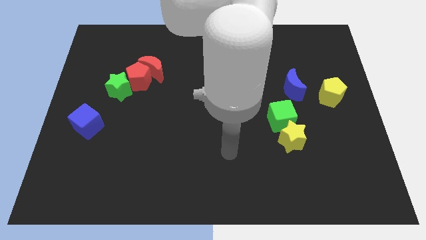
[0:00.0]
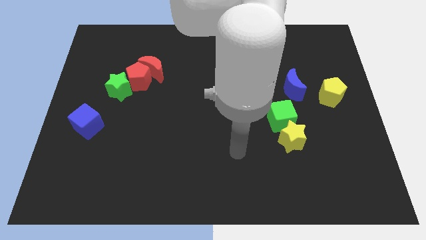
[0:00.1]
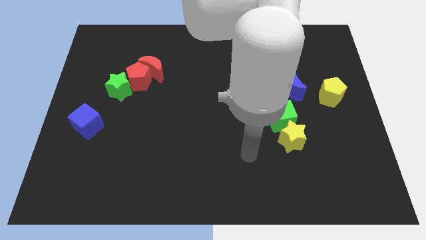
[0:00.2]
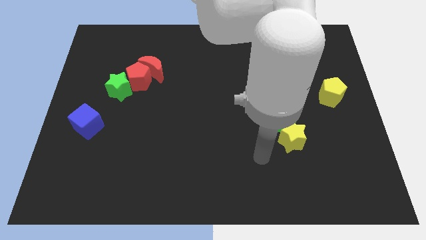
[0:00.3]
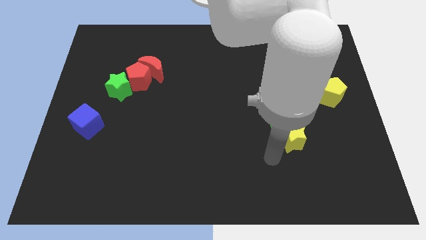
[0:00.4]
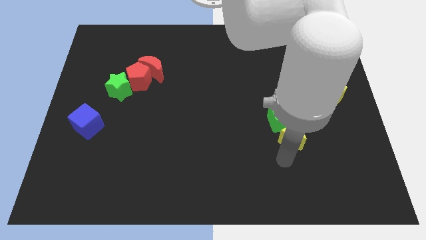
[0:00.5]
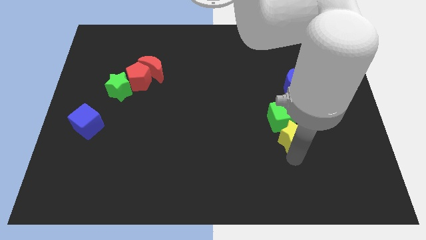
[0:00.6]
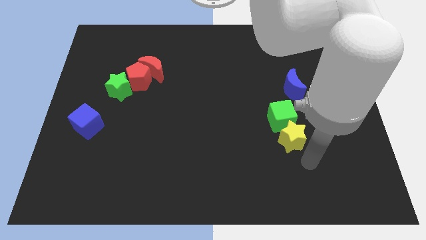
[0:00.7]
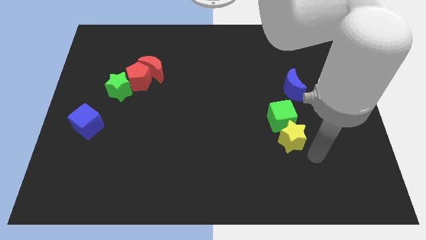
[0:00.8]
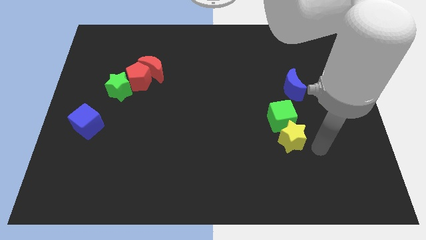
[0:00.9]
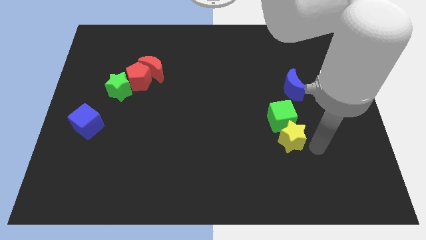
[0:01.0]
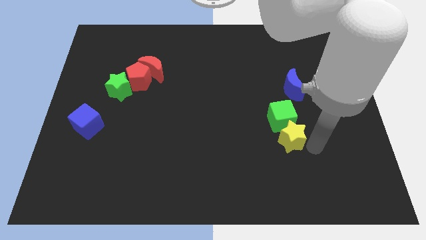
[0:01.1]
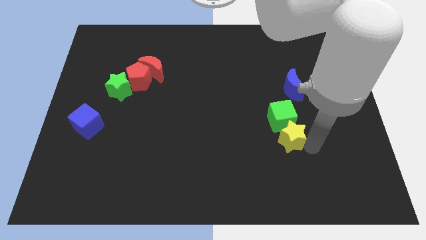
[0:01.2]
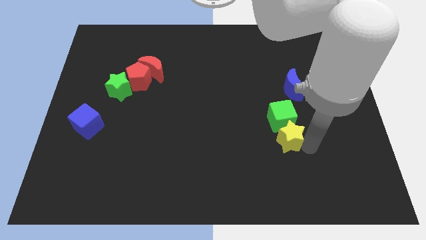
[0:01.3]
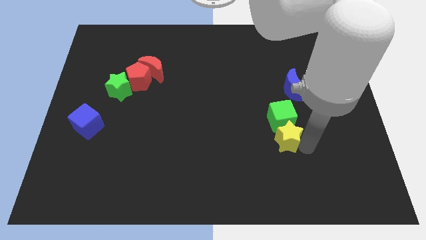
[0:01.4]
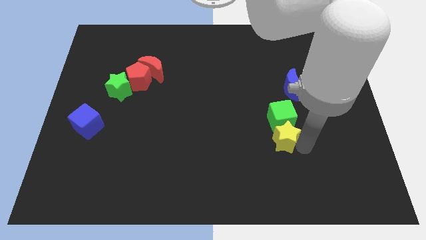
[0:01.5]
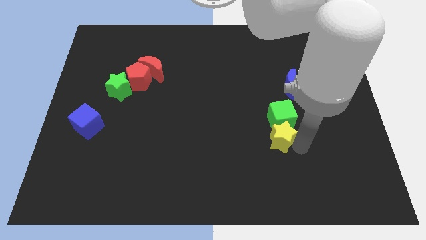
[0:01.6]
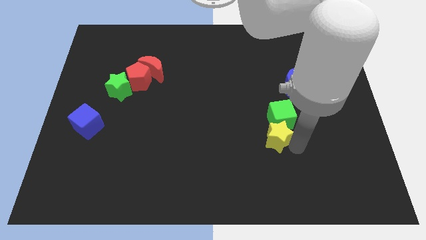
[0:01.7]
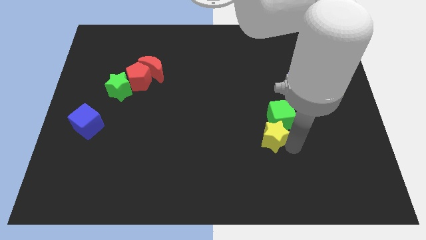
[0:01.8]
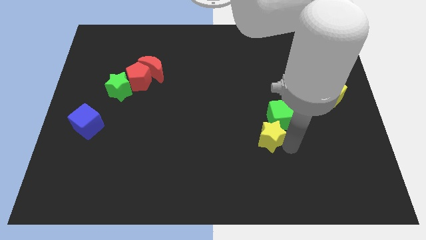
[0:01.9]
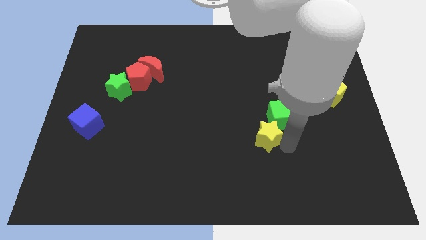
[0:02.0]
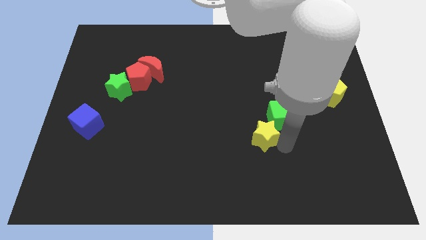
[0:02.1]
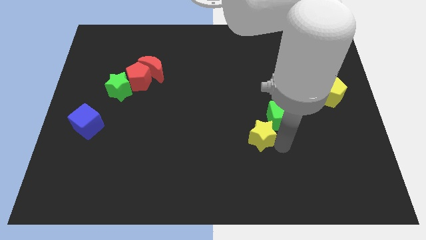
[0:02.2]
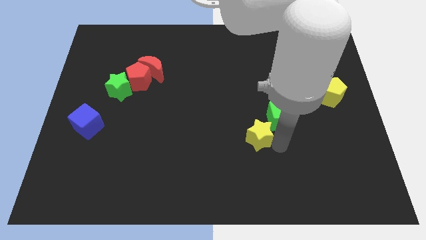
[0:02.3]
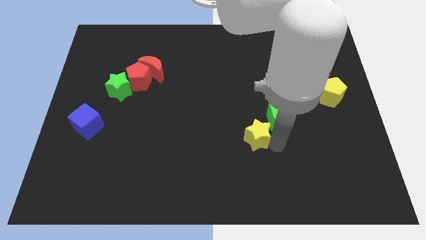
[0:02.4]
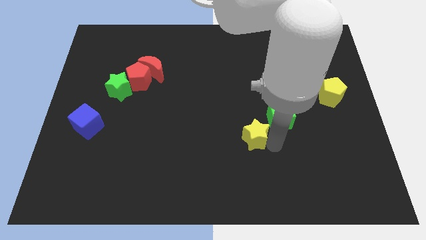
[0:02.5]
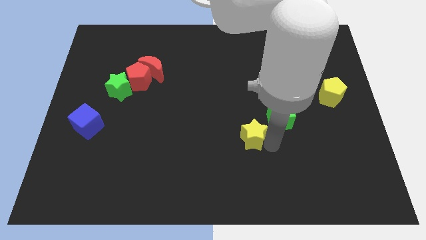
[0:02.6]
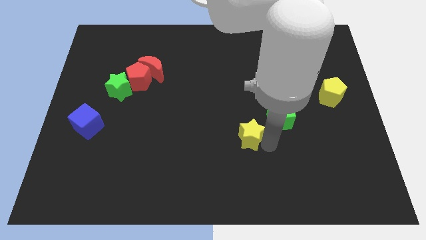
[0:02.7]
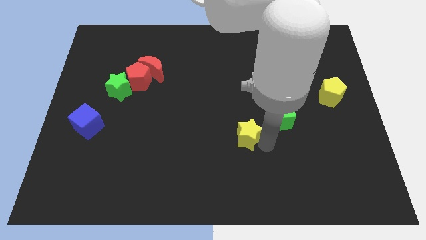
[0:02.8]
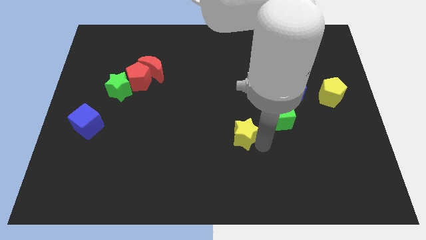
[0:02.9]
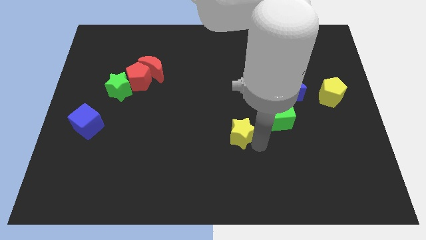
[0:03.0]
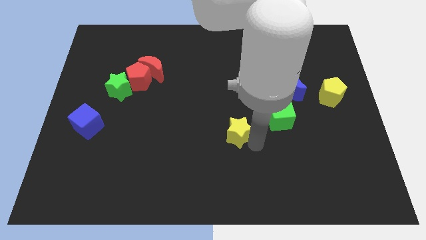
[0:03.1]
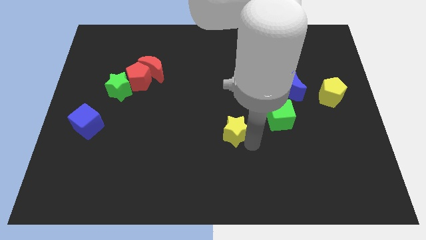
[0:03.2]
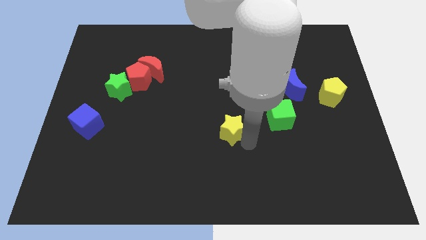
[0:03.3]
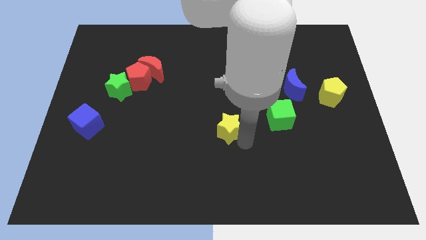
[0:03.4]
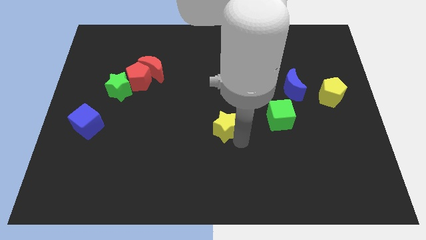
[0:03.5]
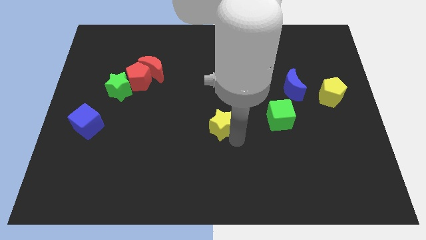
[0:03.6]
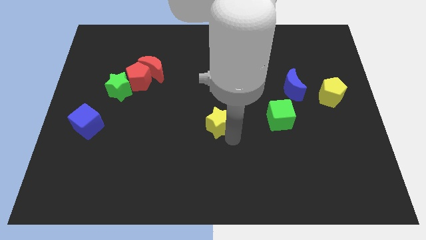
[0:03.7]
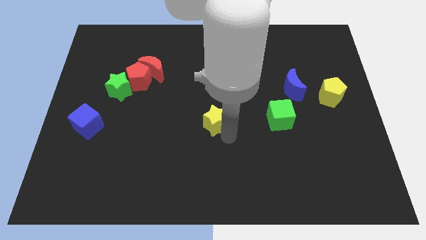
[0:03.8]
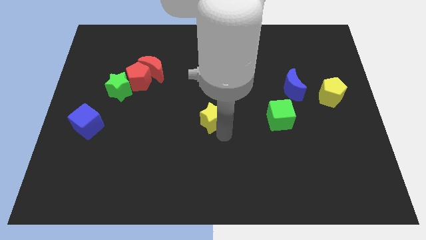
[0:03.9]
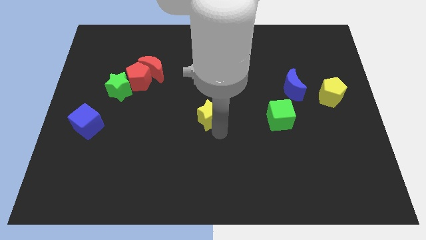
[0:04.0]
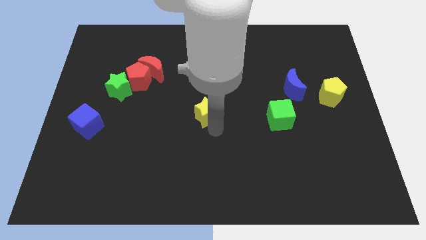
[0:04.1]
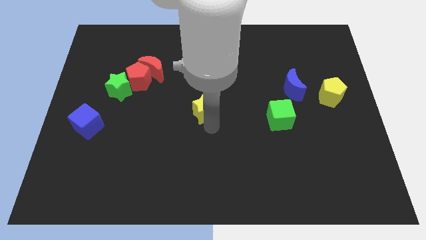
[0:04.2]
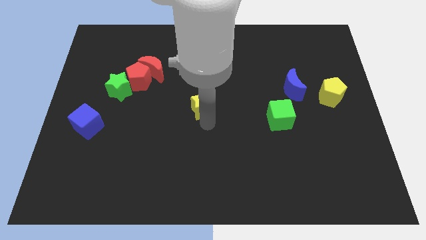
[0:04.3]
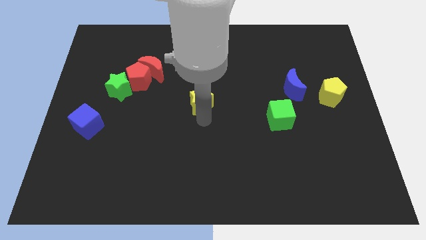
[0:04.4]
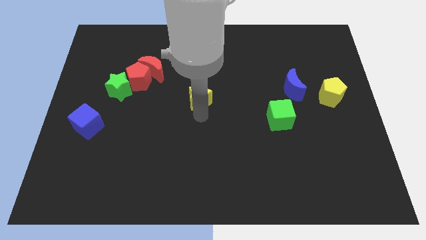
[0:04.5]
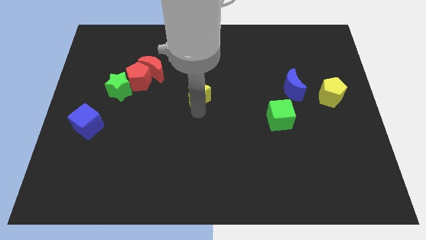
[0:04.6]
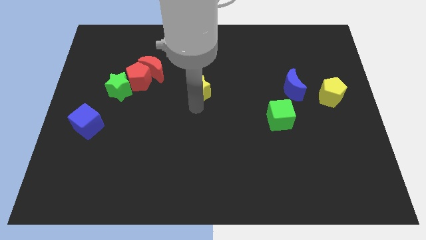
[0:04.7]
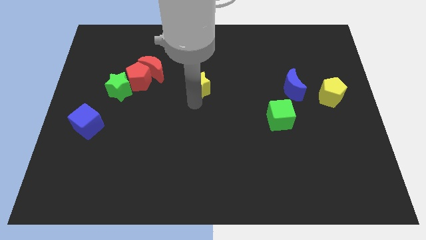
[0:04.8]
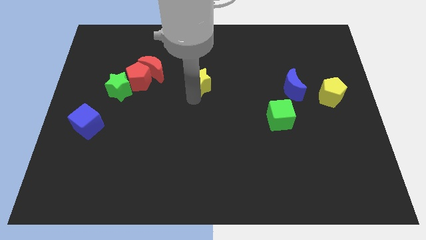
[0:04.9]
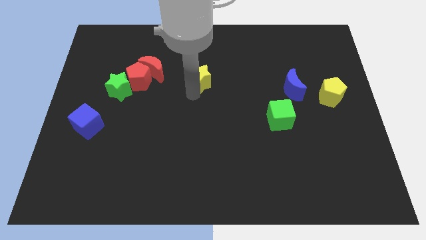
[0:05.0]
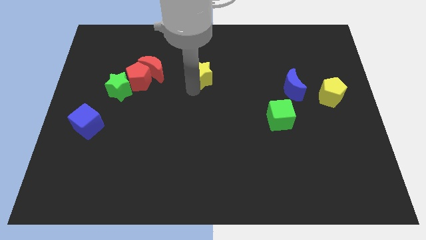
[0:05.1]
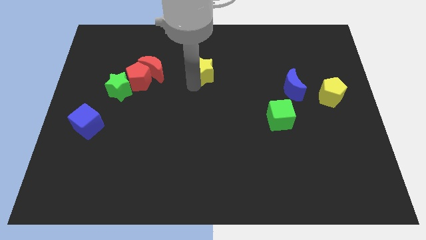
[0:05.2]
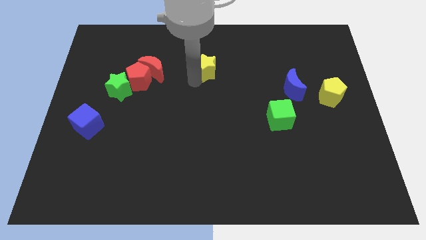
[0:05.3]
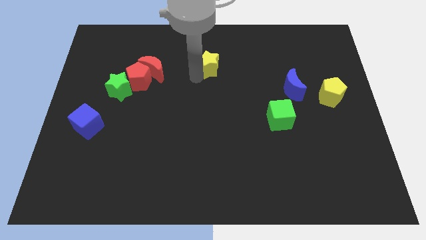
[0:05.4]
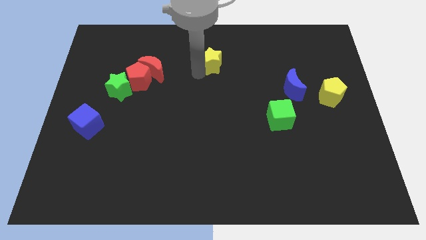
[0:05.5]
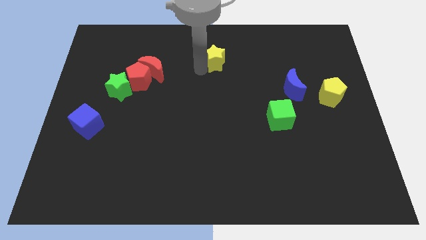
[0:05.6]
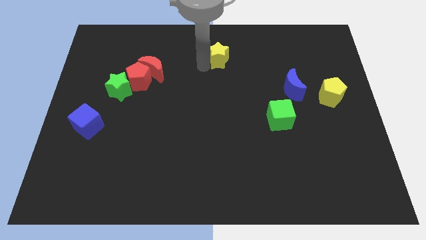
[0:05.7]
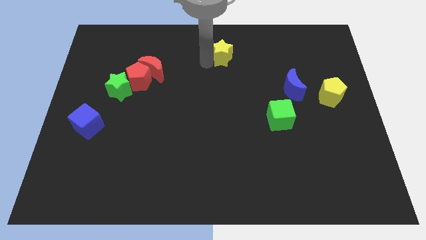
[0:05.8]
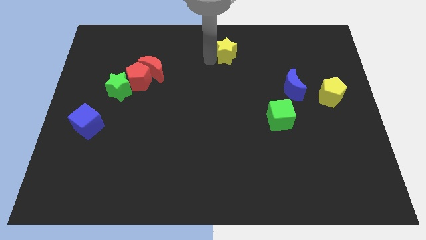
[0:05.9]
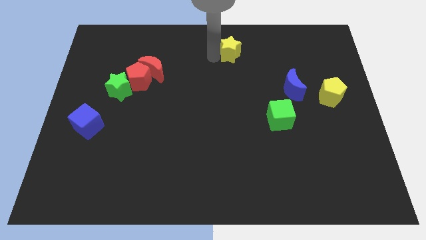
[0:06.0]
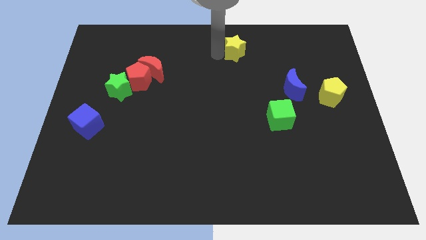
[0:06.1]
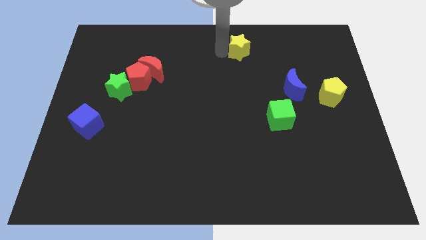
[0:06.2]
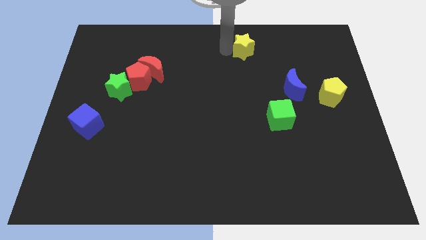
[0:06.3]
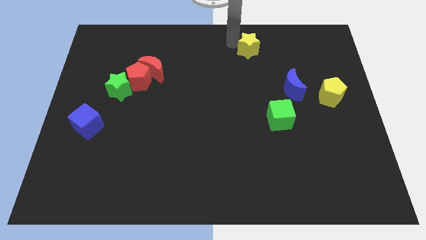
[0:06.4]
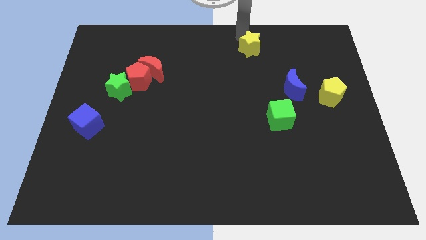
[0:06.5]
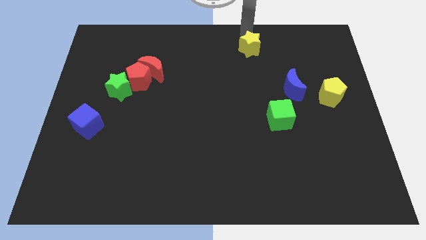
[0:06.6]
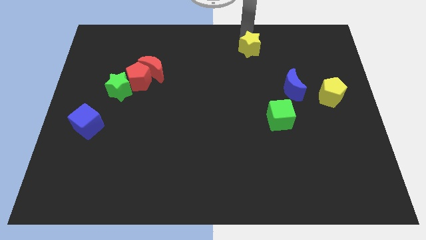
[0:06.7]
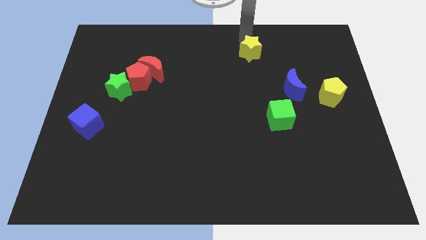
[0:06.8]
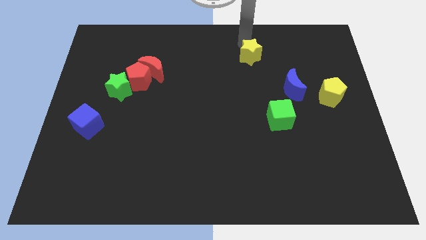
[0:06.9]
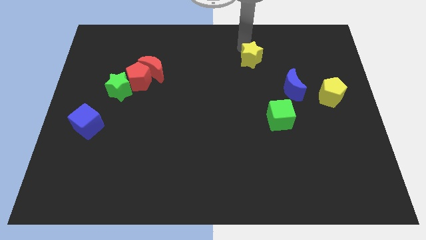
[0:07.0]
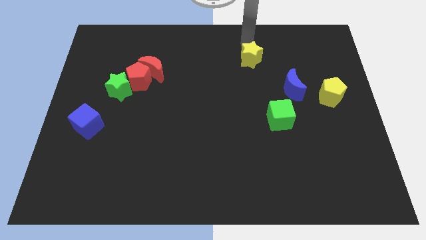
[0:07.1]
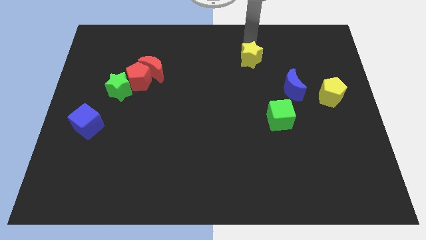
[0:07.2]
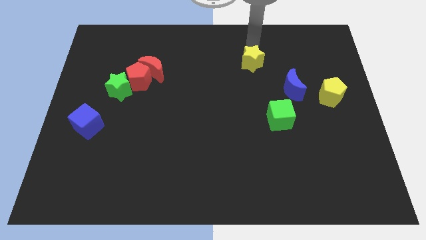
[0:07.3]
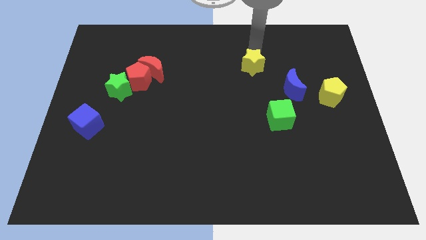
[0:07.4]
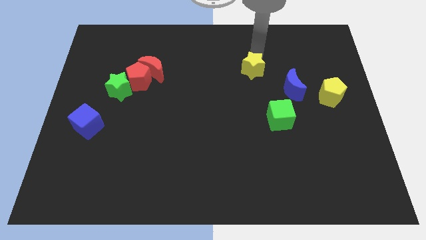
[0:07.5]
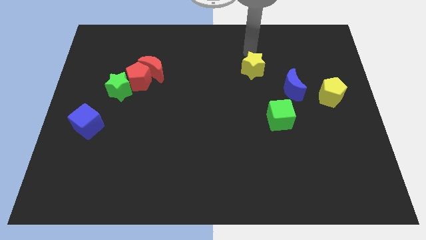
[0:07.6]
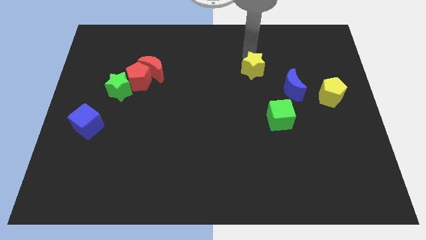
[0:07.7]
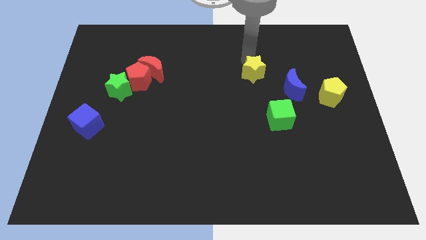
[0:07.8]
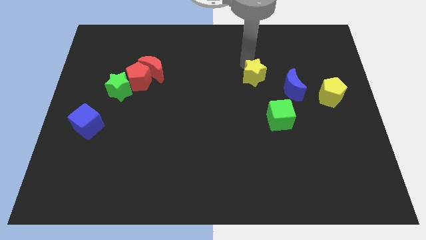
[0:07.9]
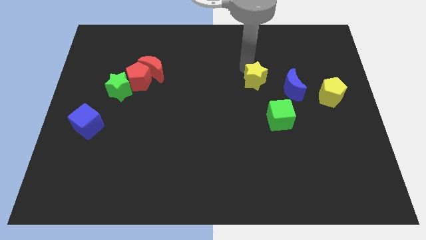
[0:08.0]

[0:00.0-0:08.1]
put the yellow star above the green cube
